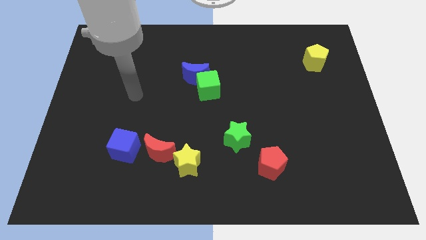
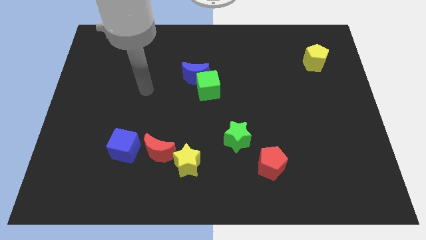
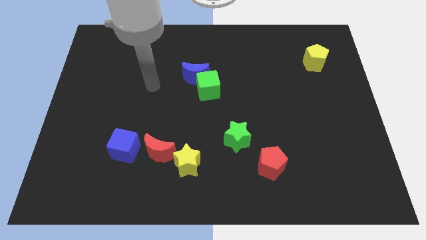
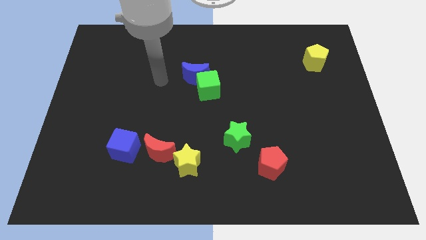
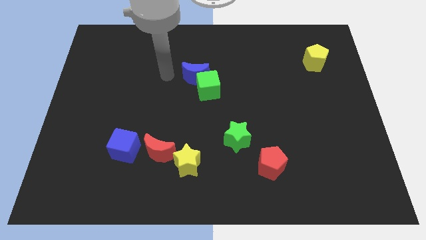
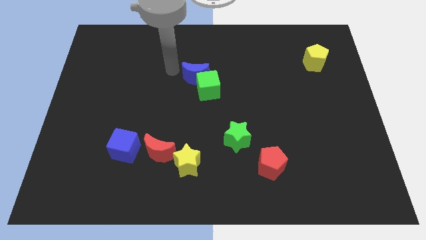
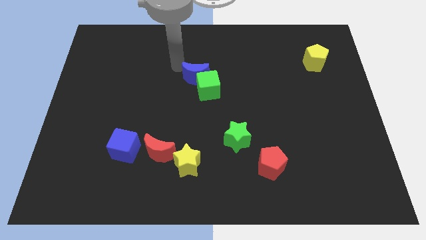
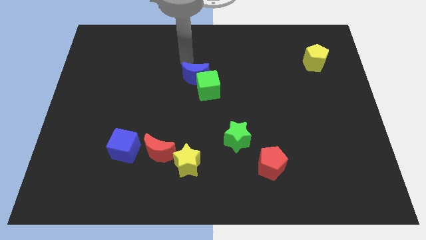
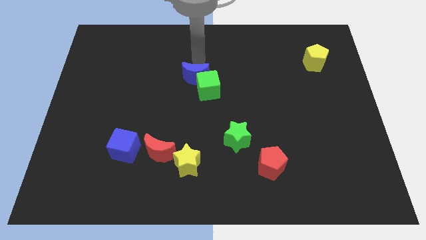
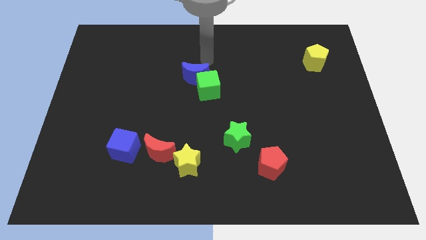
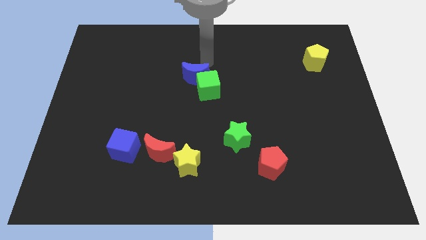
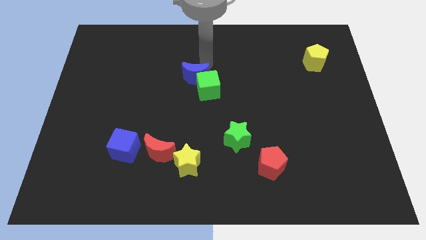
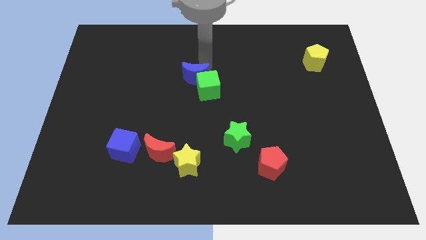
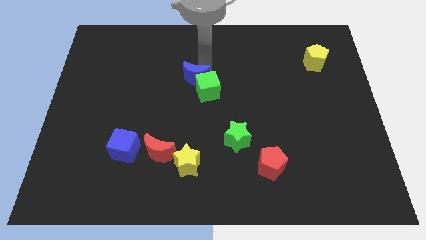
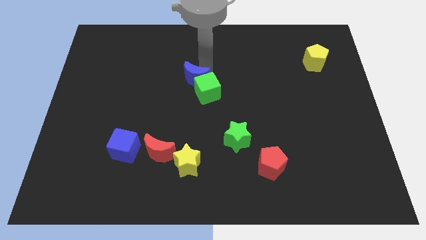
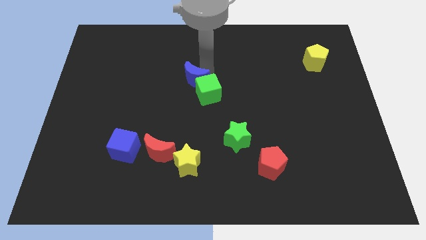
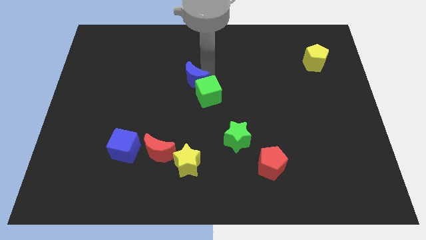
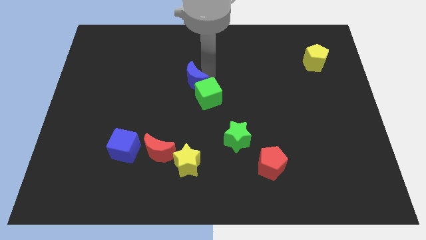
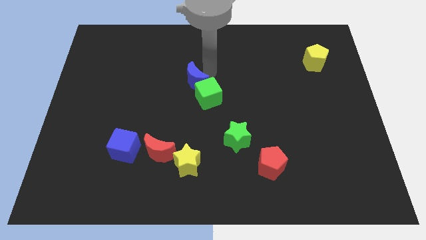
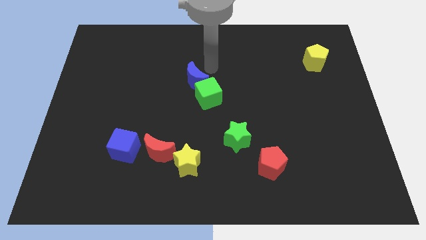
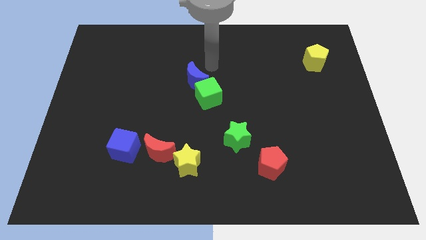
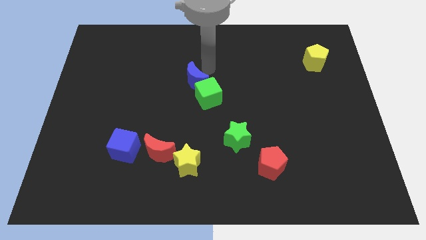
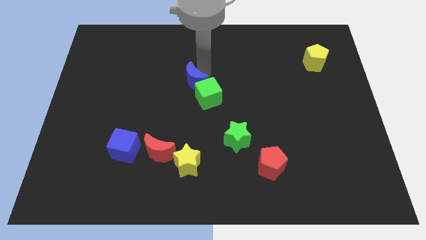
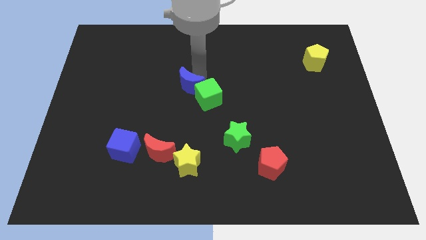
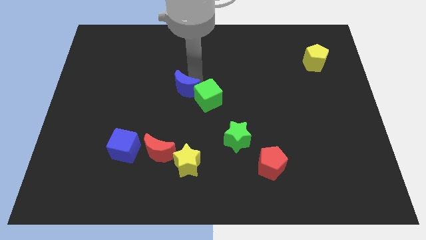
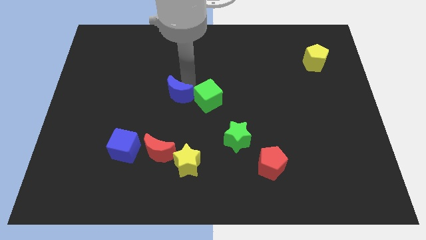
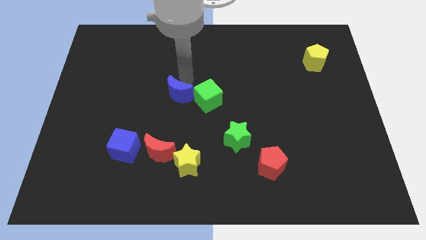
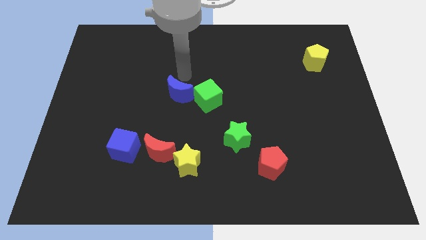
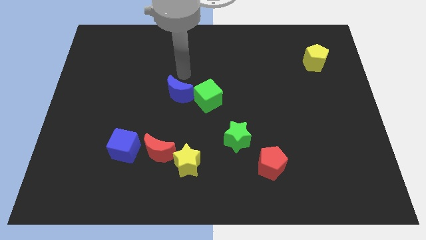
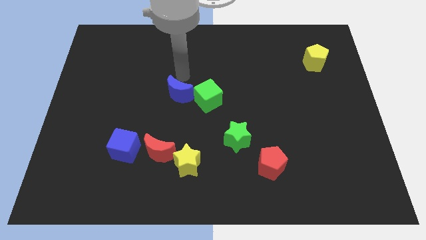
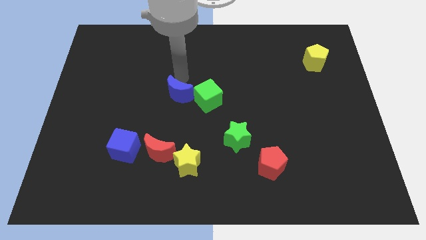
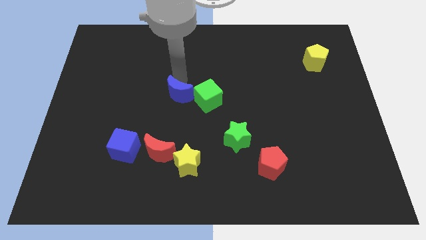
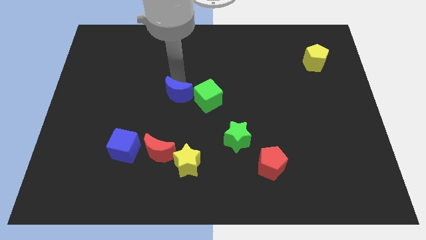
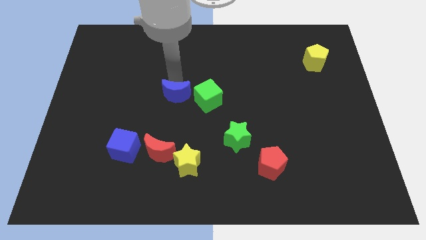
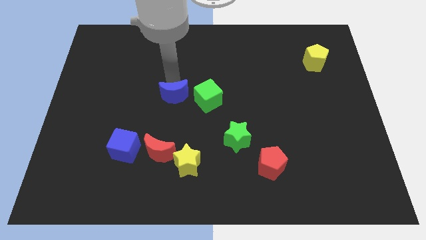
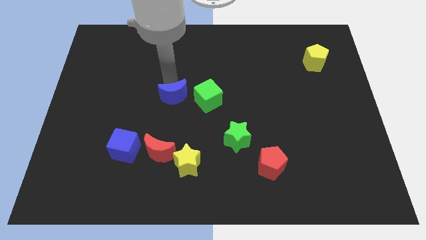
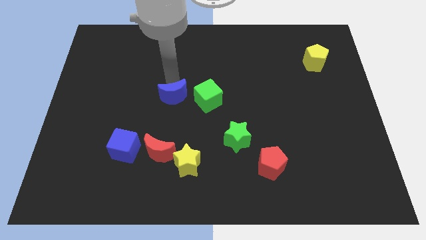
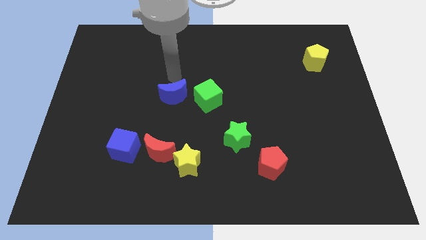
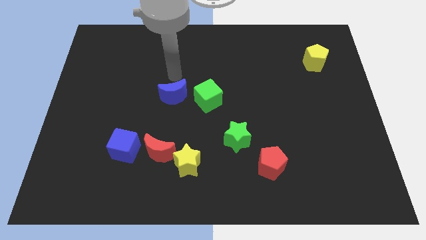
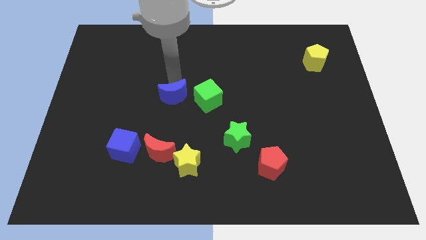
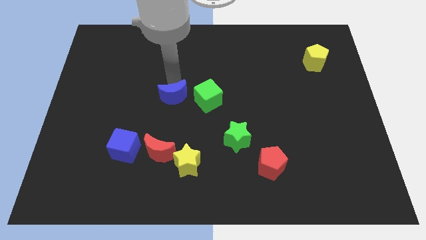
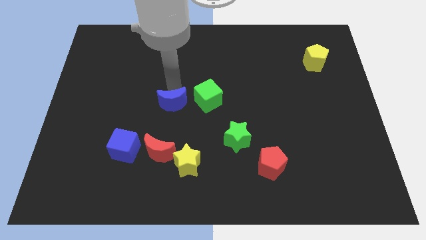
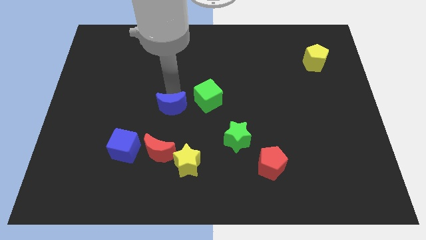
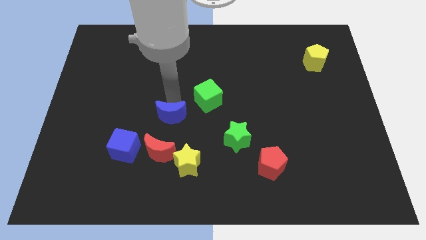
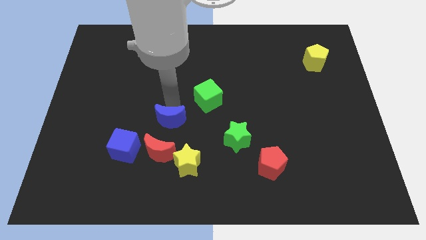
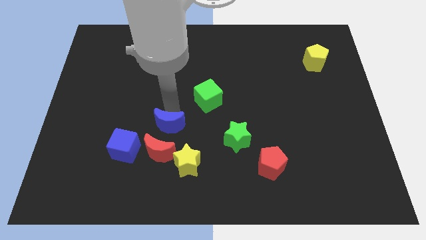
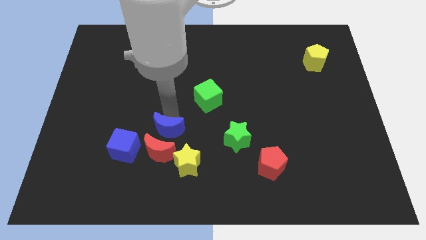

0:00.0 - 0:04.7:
push the blue moon to the red moon

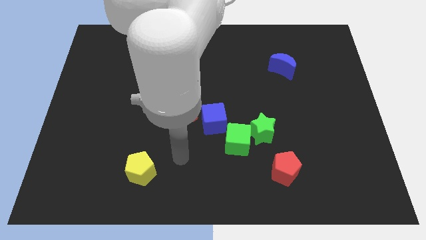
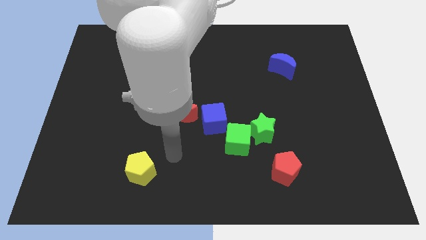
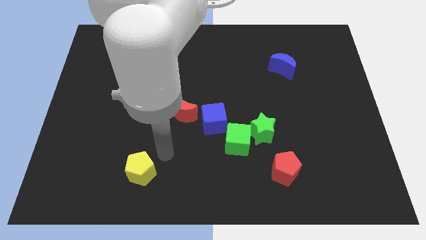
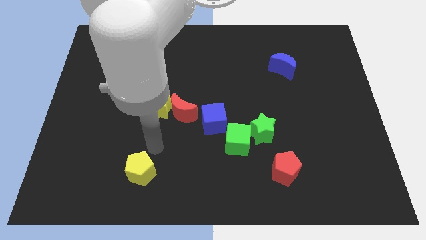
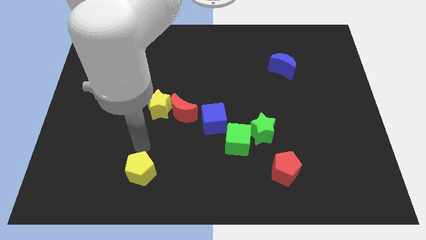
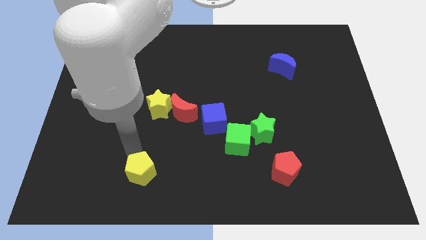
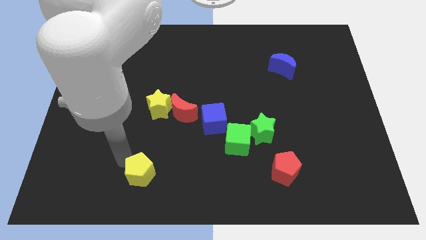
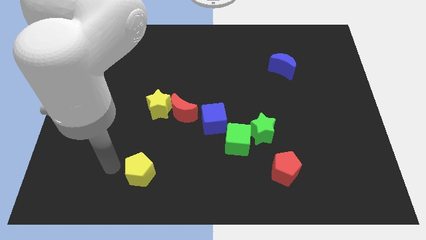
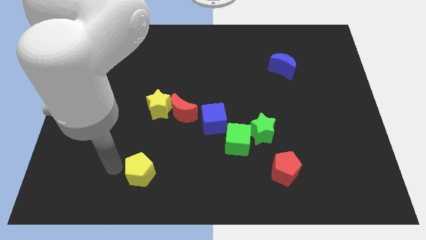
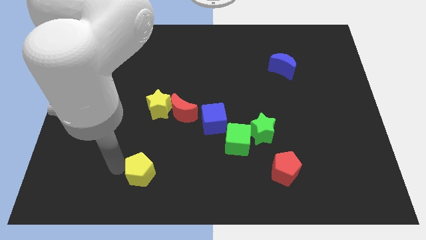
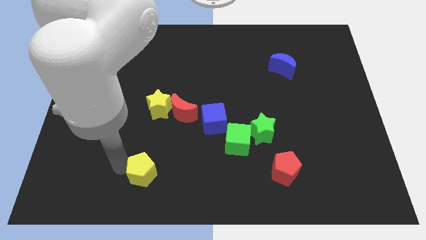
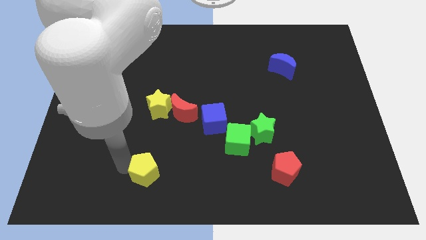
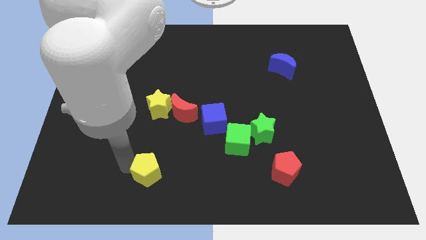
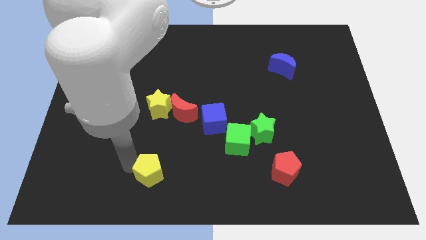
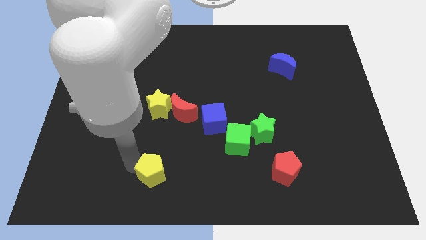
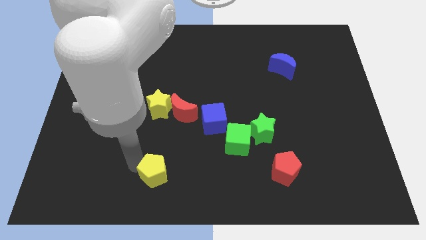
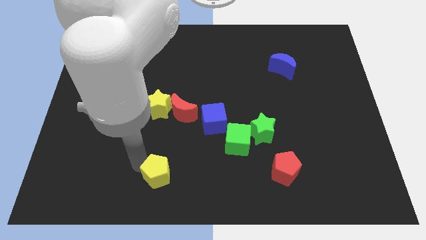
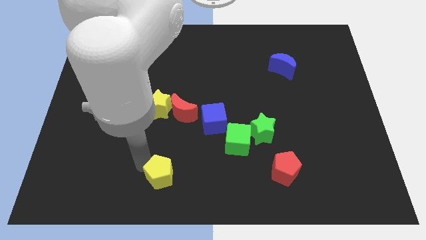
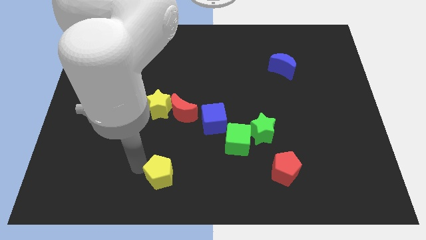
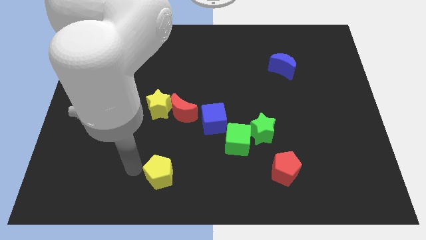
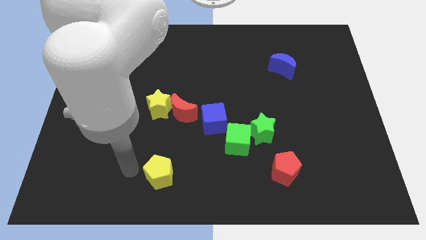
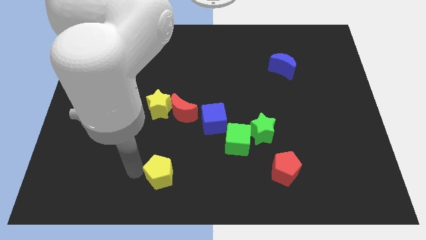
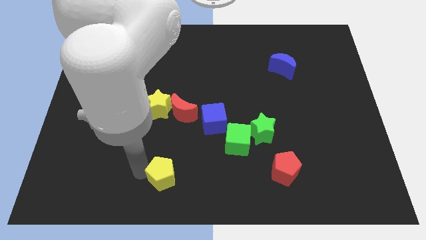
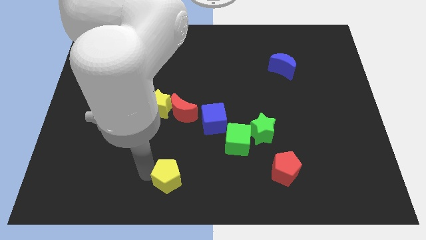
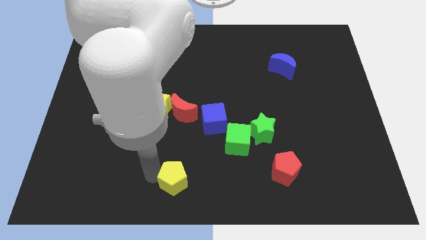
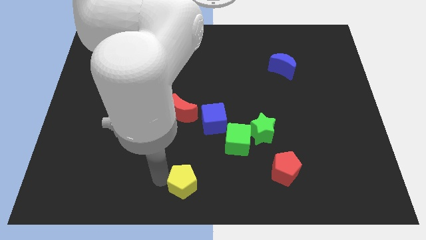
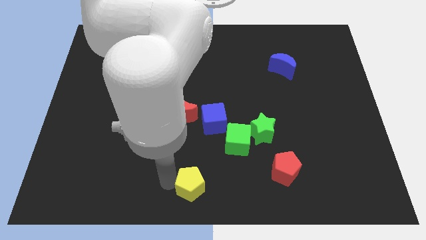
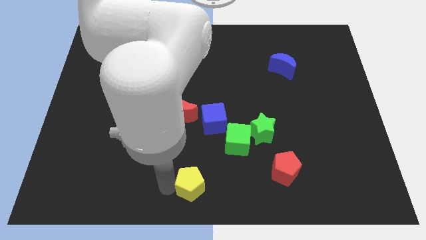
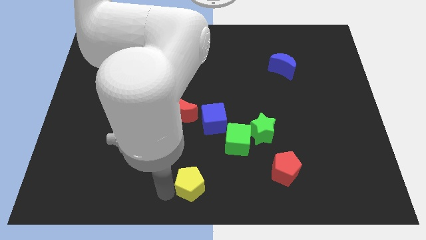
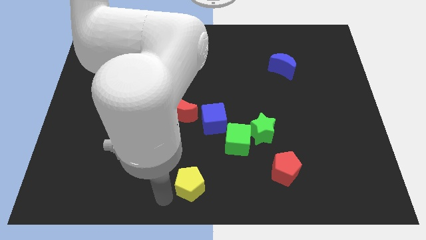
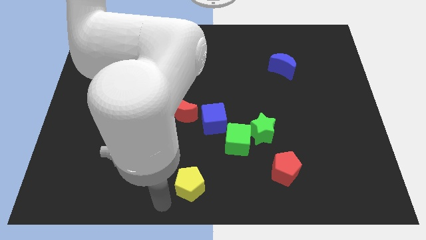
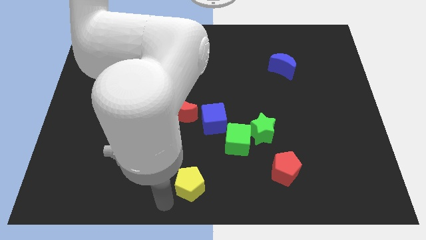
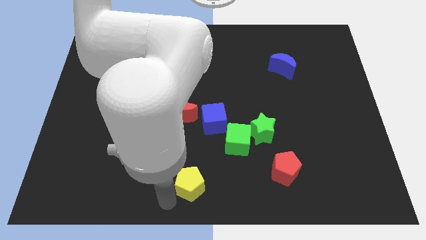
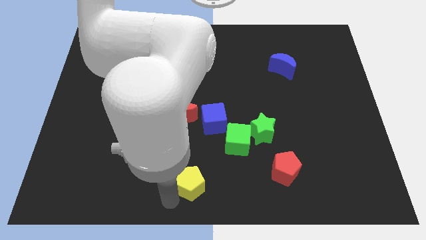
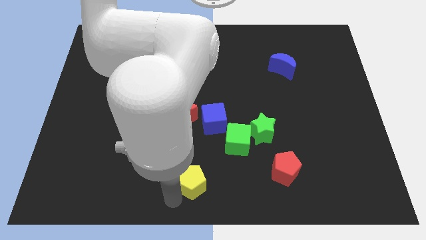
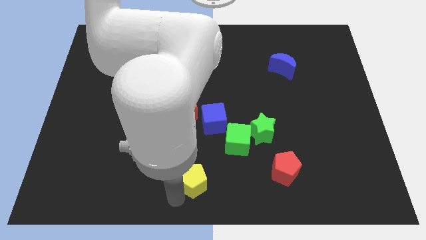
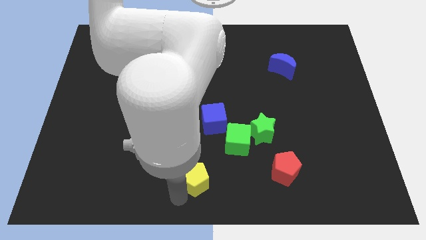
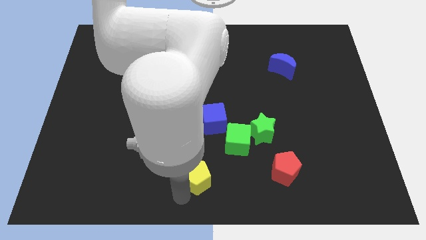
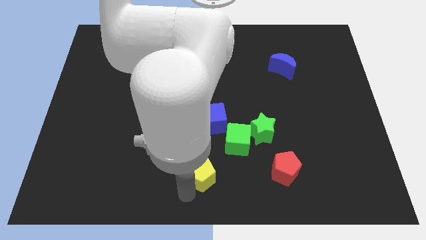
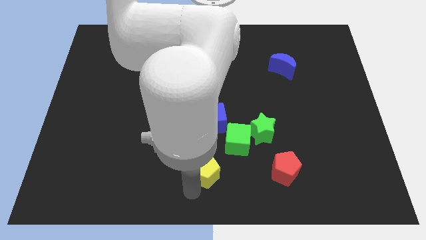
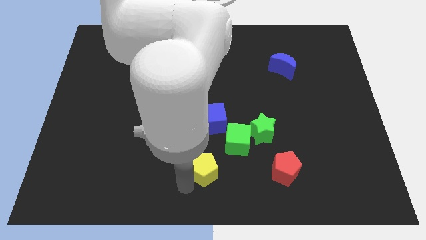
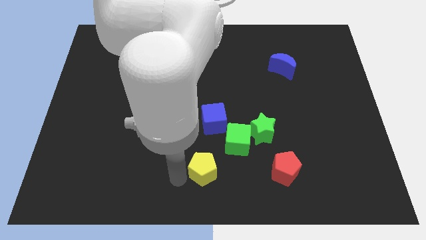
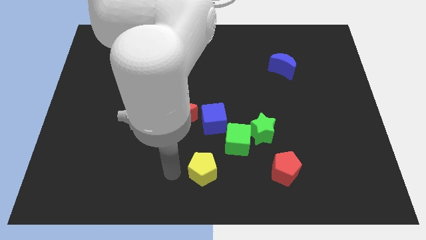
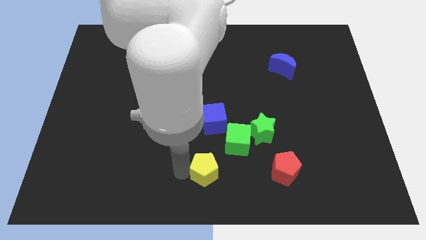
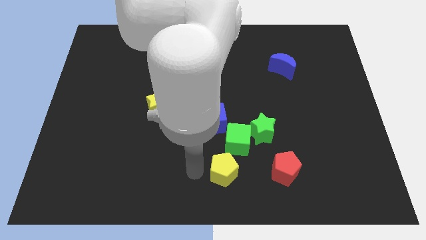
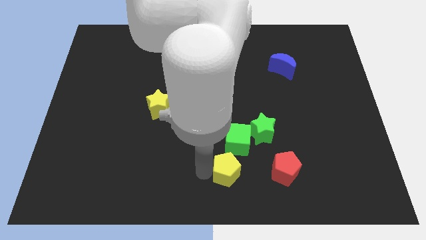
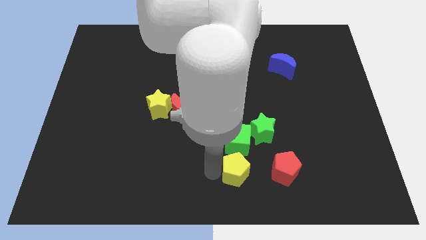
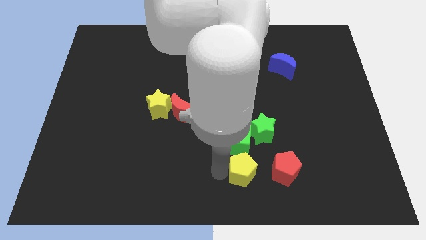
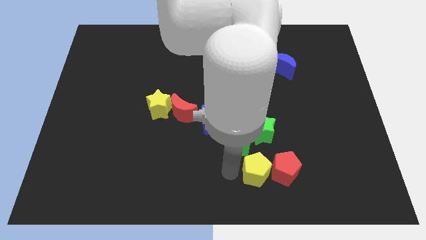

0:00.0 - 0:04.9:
put the yellow pentagon next to the red pentagon
